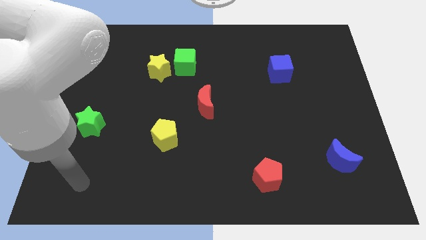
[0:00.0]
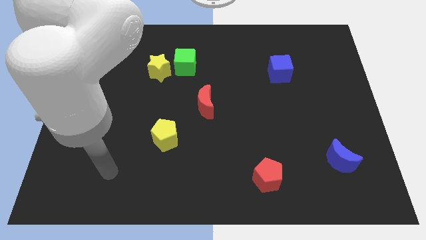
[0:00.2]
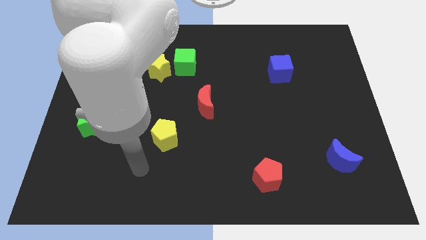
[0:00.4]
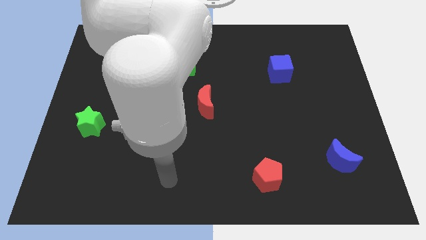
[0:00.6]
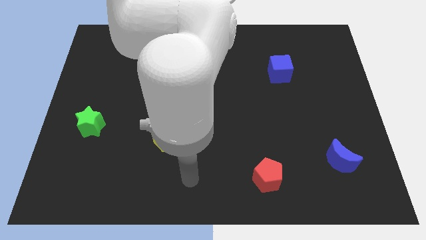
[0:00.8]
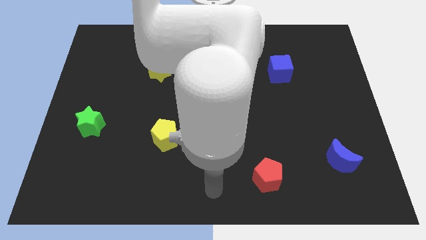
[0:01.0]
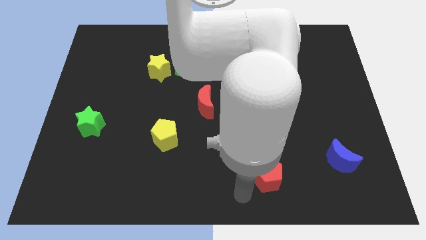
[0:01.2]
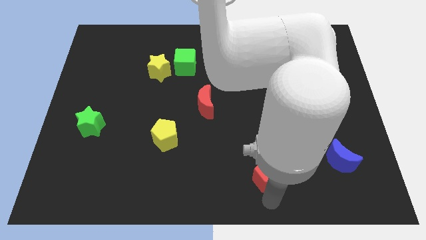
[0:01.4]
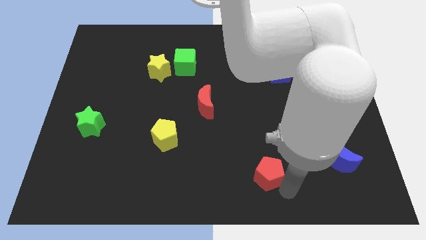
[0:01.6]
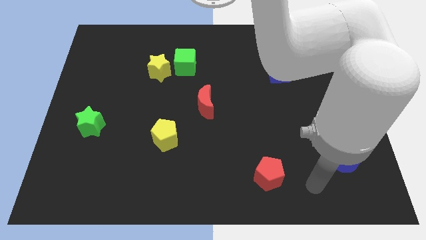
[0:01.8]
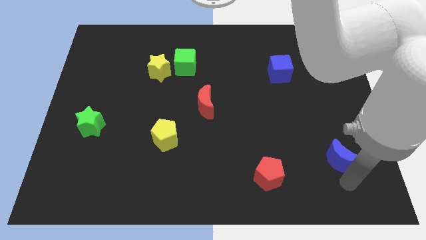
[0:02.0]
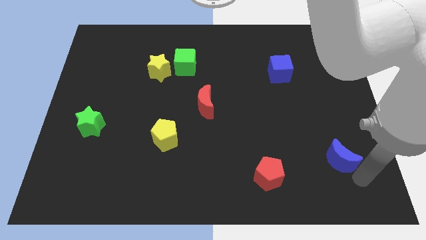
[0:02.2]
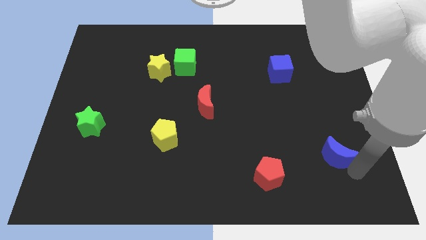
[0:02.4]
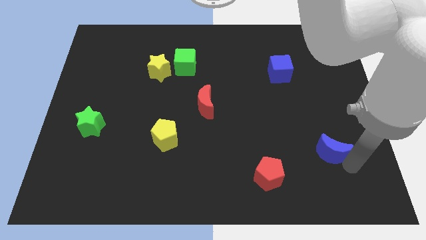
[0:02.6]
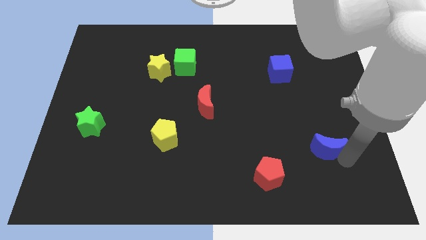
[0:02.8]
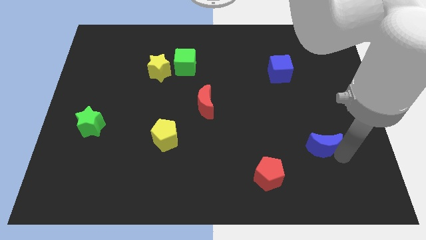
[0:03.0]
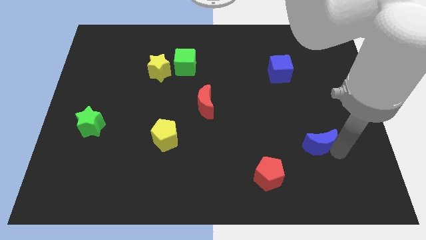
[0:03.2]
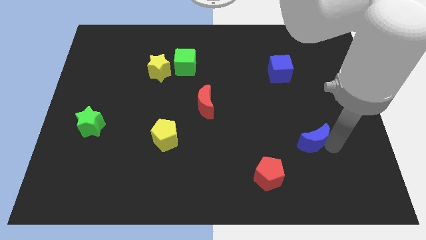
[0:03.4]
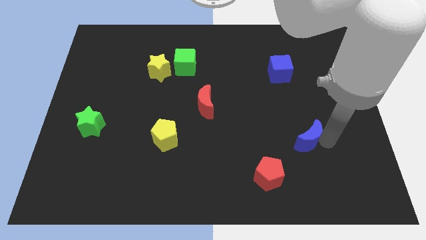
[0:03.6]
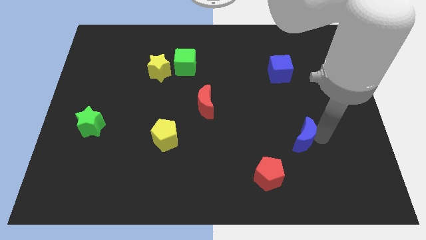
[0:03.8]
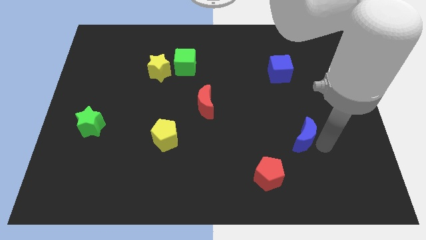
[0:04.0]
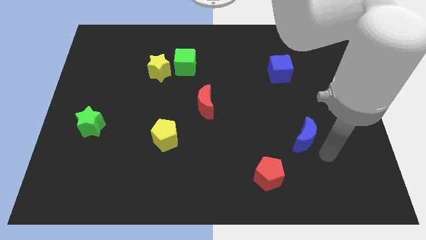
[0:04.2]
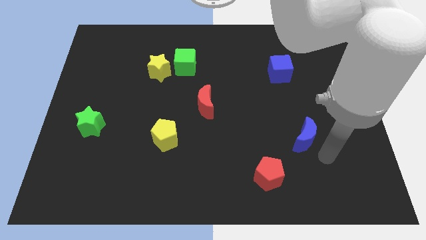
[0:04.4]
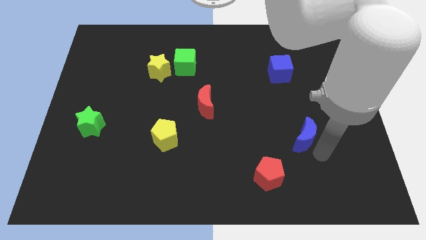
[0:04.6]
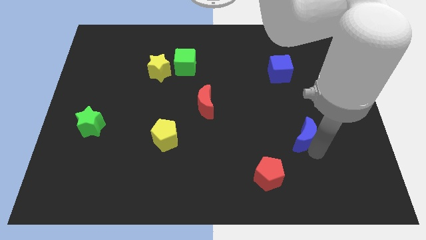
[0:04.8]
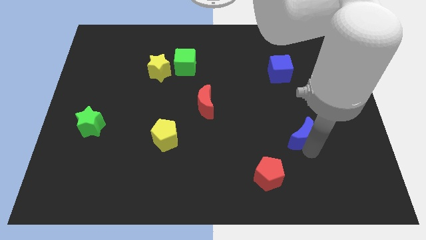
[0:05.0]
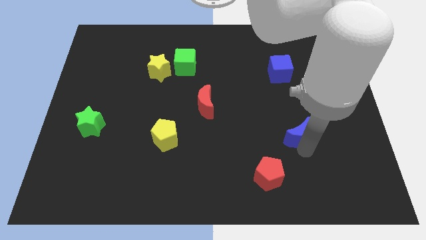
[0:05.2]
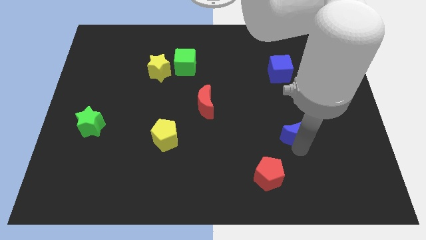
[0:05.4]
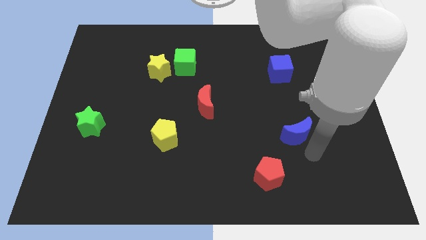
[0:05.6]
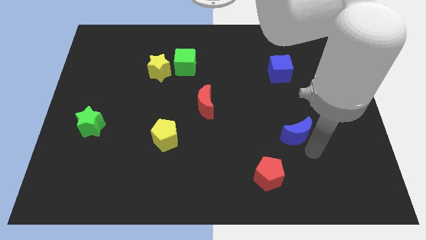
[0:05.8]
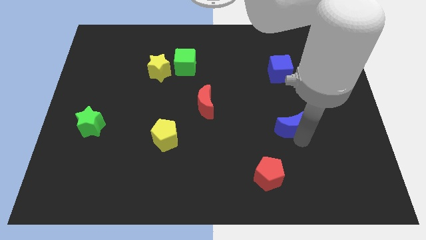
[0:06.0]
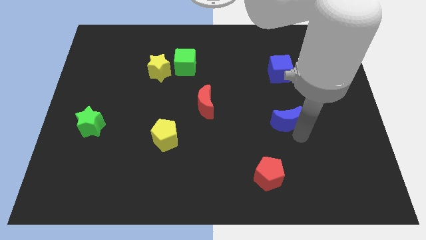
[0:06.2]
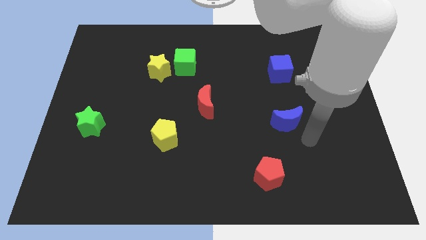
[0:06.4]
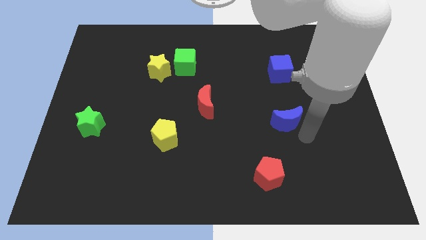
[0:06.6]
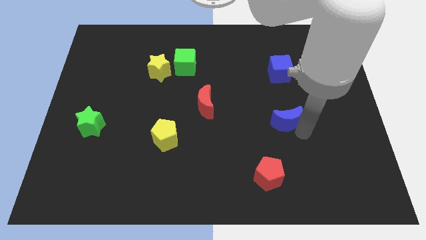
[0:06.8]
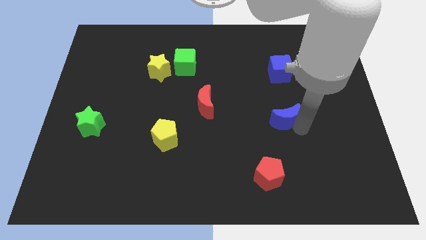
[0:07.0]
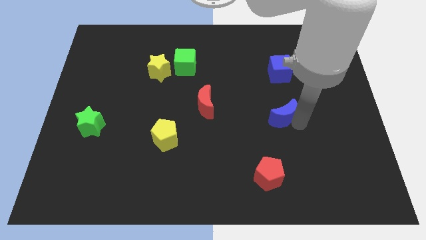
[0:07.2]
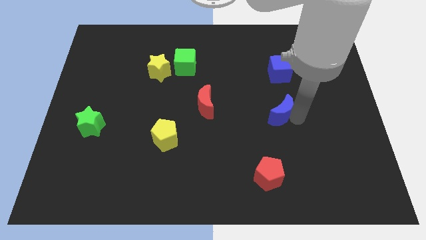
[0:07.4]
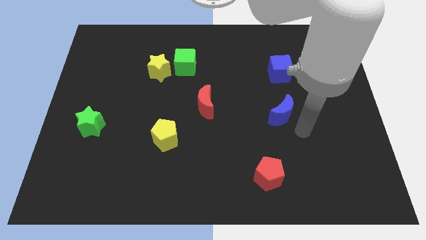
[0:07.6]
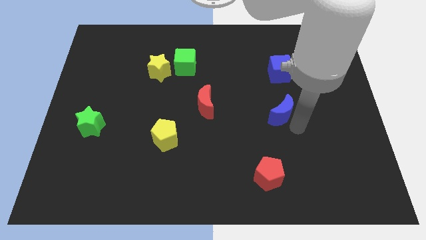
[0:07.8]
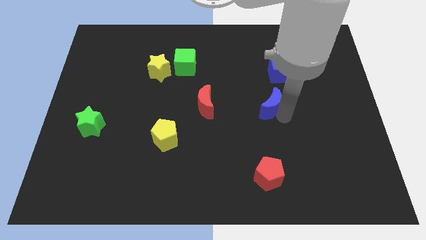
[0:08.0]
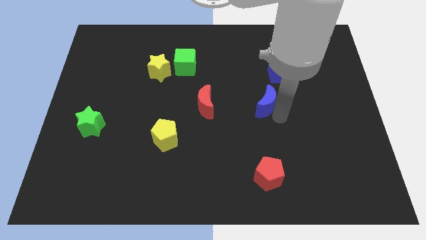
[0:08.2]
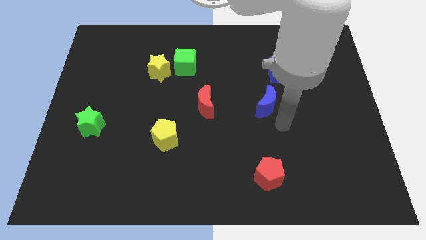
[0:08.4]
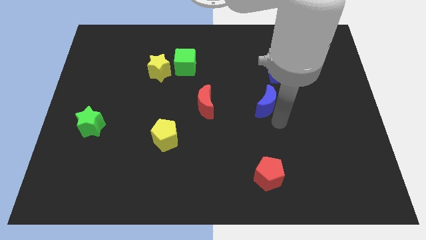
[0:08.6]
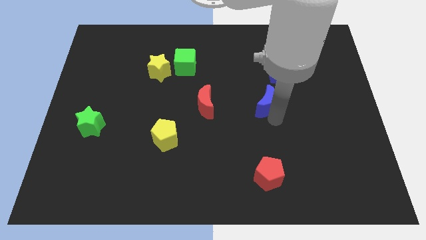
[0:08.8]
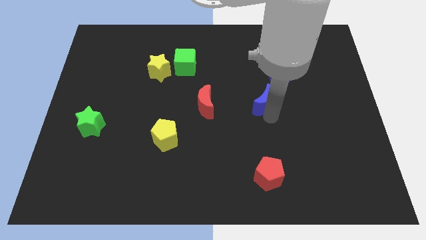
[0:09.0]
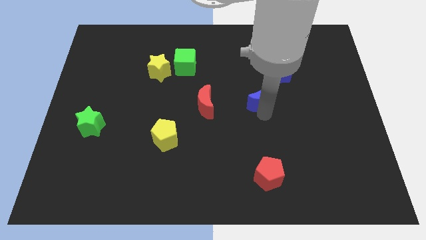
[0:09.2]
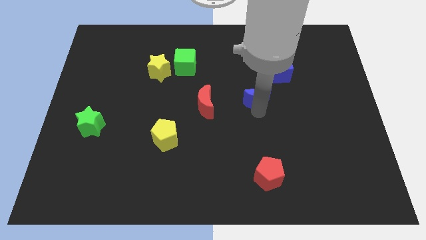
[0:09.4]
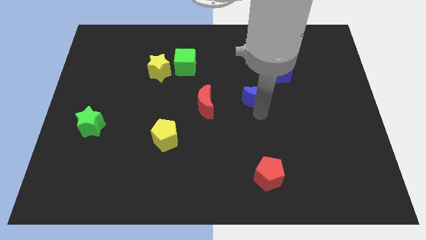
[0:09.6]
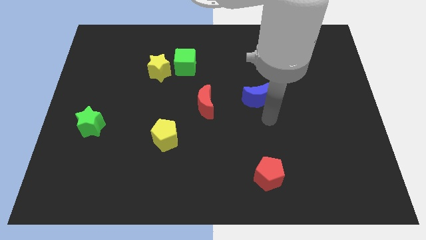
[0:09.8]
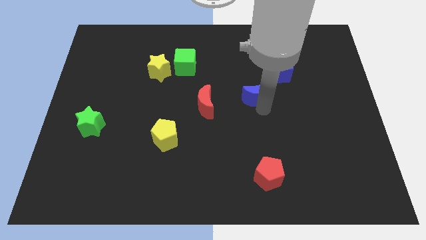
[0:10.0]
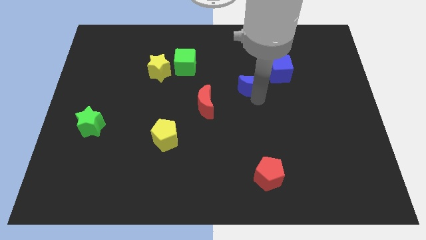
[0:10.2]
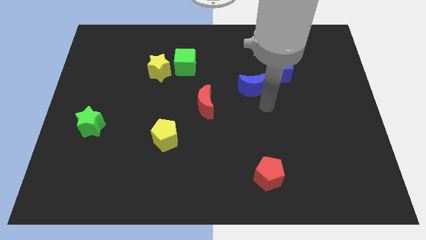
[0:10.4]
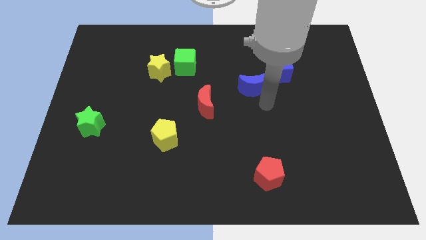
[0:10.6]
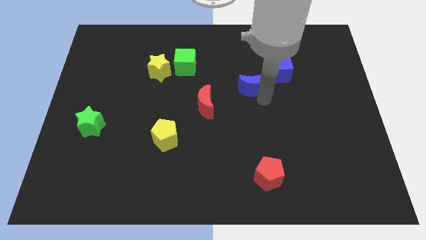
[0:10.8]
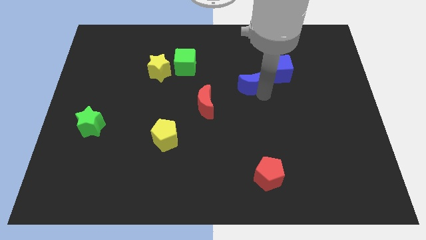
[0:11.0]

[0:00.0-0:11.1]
push the blue moon to the left of the blue cube

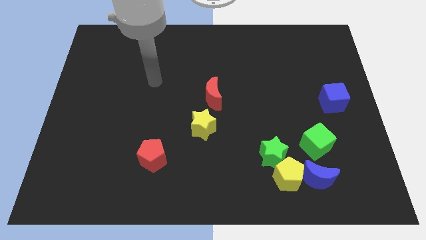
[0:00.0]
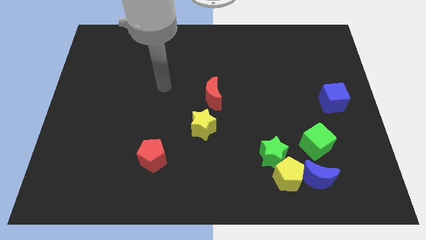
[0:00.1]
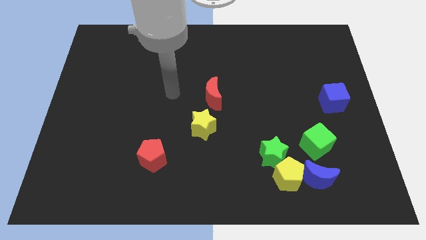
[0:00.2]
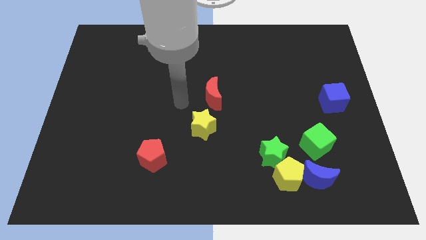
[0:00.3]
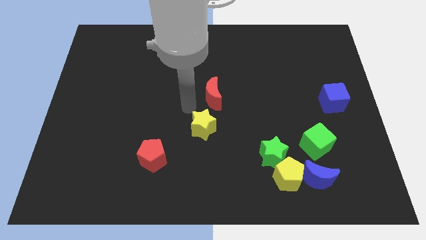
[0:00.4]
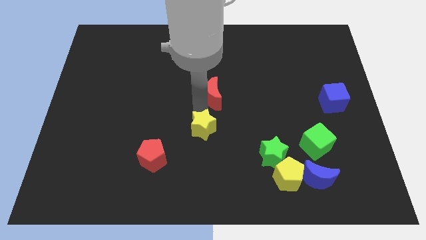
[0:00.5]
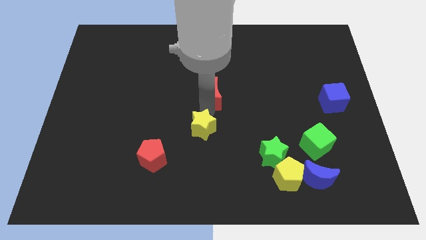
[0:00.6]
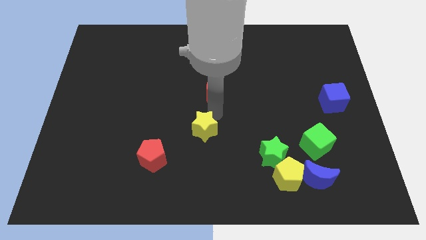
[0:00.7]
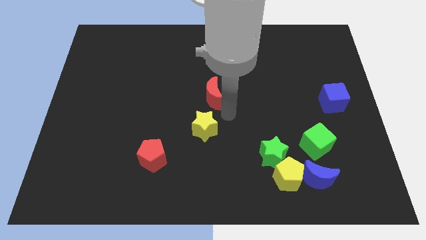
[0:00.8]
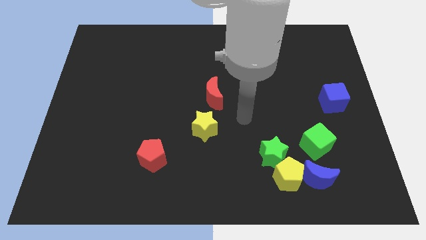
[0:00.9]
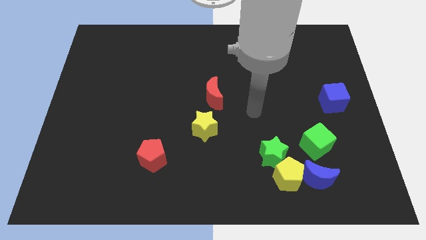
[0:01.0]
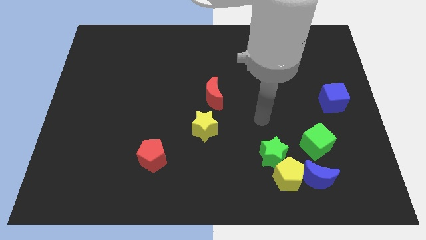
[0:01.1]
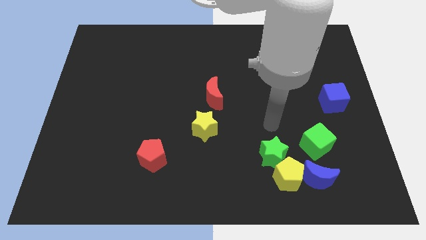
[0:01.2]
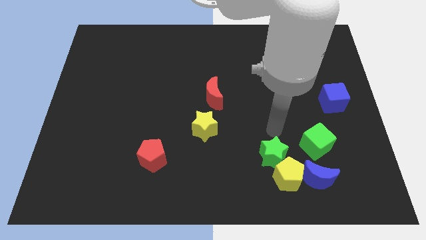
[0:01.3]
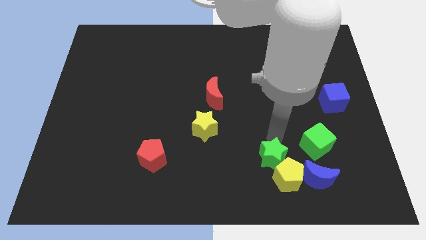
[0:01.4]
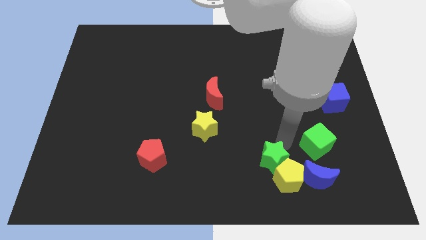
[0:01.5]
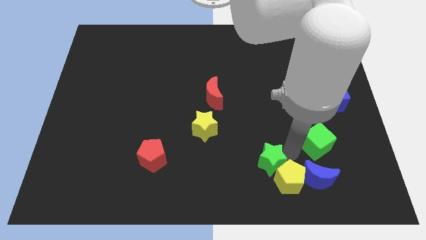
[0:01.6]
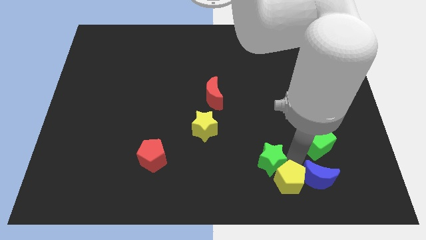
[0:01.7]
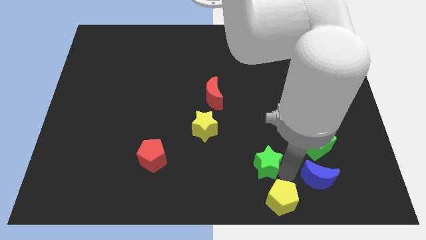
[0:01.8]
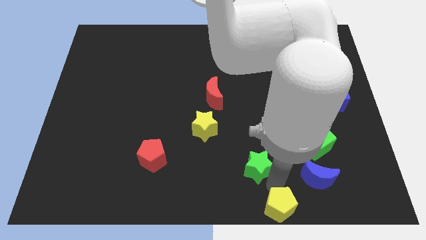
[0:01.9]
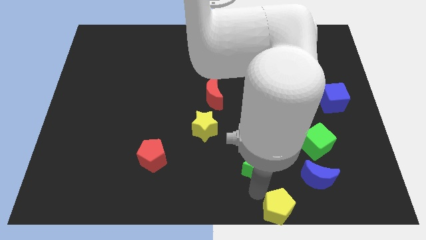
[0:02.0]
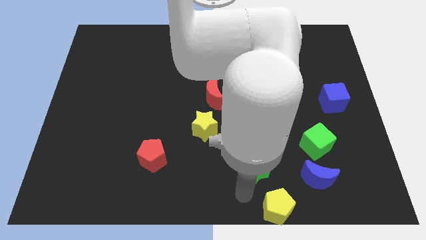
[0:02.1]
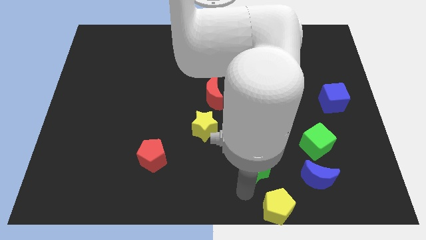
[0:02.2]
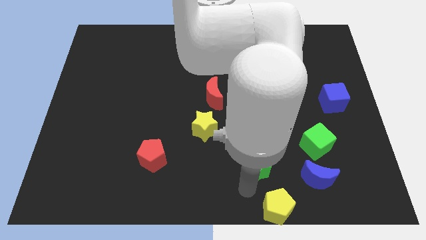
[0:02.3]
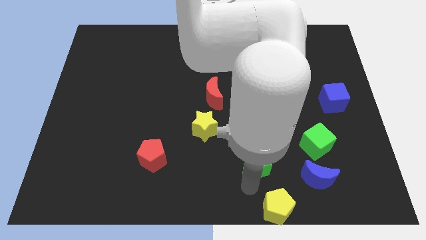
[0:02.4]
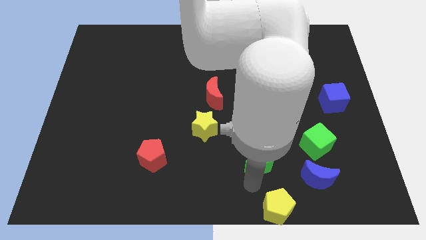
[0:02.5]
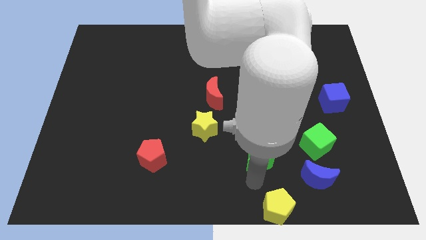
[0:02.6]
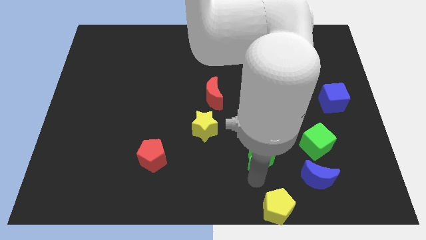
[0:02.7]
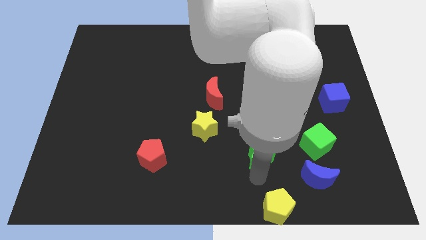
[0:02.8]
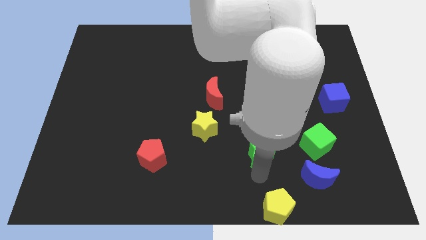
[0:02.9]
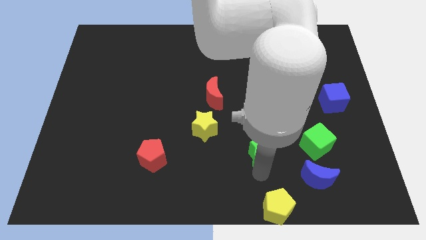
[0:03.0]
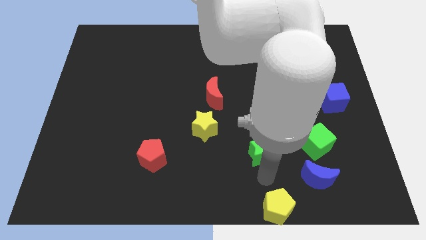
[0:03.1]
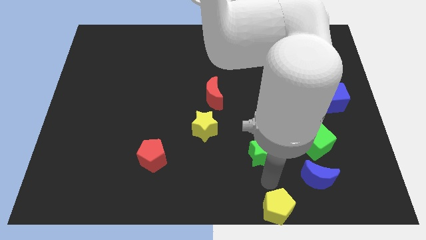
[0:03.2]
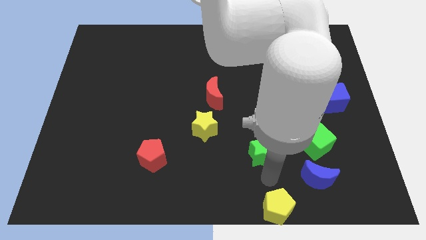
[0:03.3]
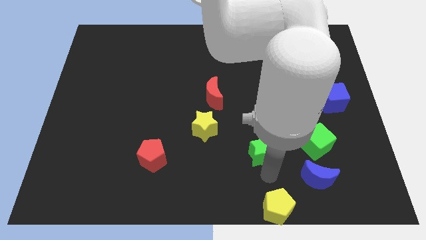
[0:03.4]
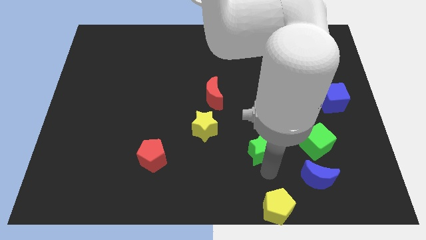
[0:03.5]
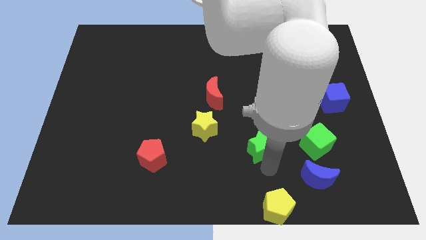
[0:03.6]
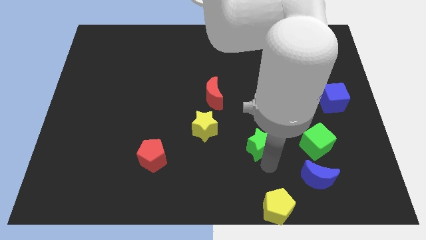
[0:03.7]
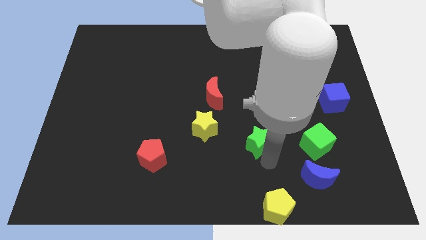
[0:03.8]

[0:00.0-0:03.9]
put the green star to the right side of the yellow star
